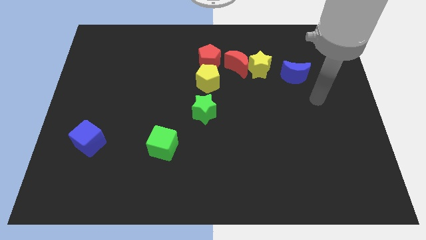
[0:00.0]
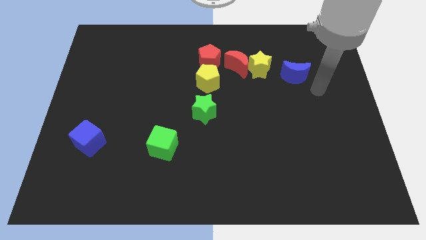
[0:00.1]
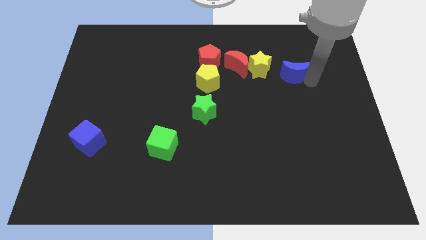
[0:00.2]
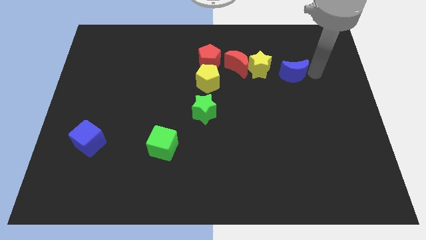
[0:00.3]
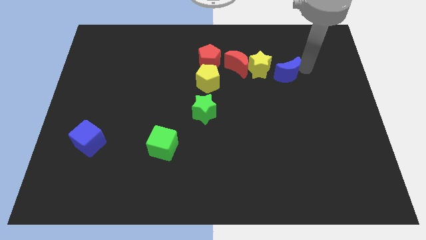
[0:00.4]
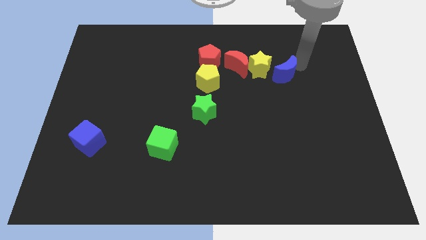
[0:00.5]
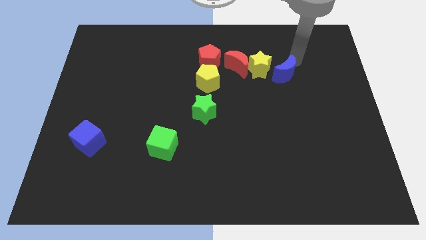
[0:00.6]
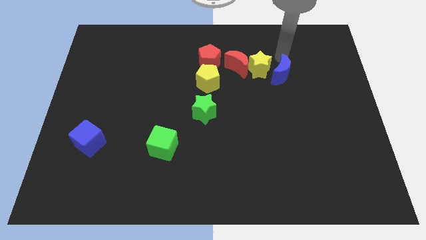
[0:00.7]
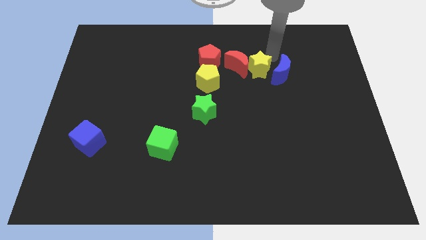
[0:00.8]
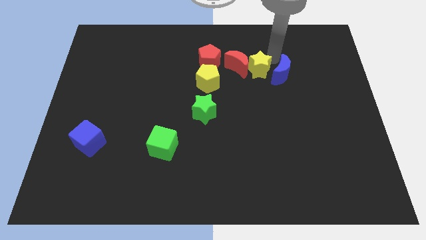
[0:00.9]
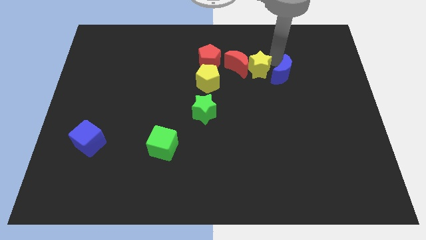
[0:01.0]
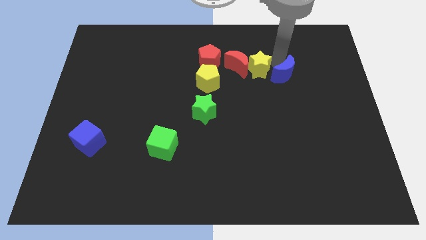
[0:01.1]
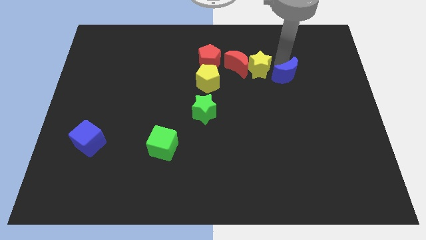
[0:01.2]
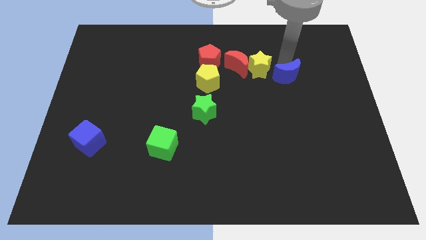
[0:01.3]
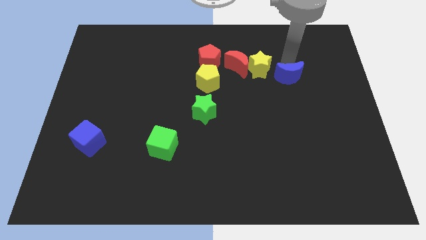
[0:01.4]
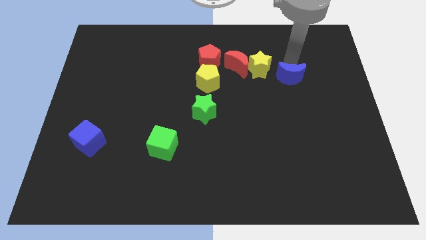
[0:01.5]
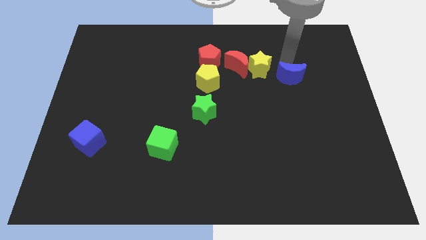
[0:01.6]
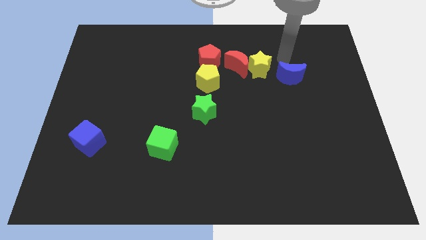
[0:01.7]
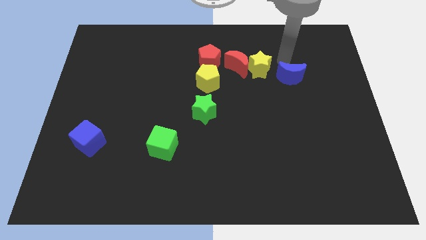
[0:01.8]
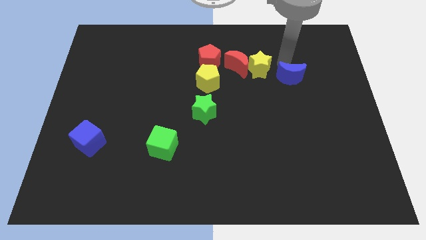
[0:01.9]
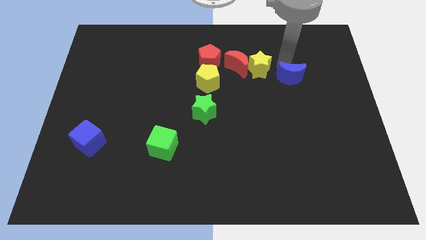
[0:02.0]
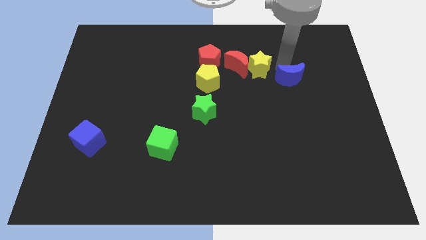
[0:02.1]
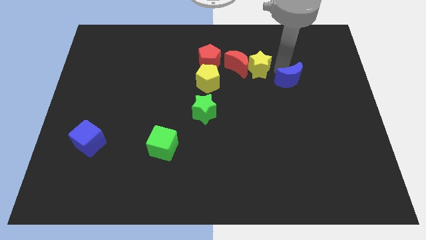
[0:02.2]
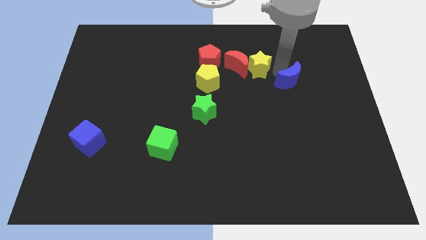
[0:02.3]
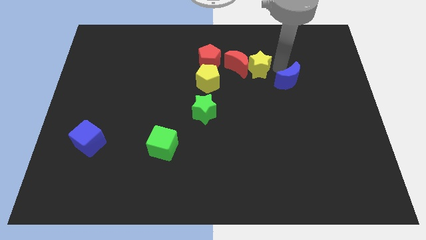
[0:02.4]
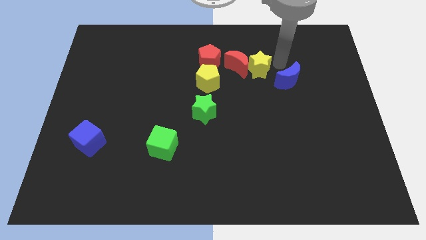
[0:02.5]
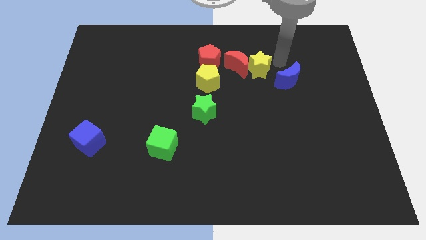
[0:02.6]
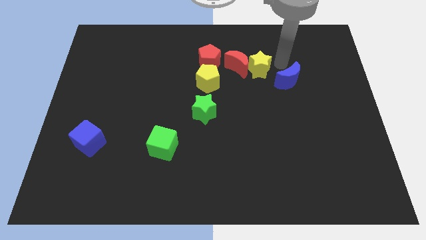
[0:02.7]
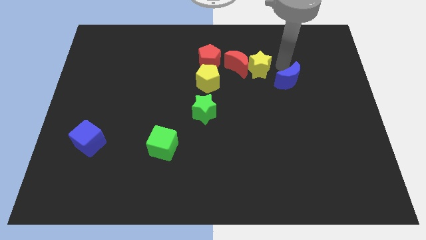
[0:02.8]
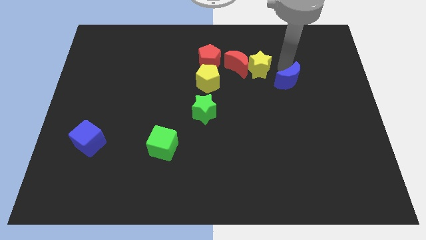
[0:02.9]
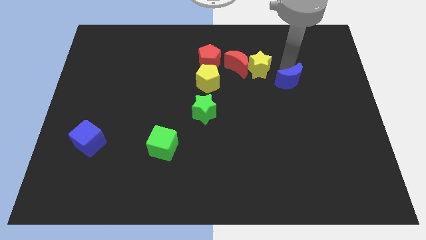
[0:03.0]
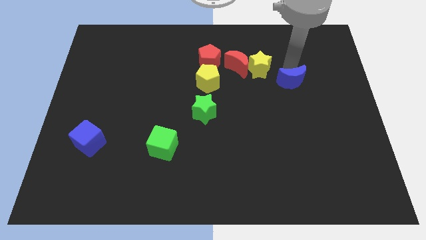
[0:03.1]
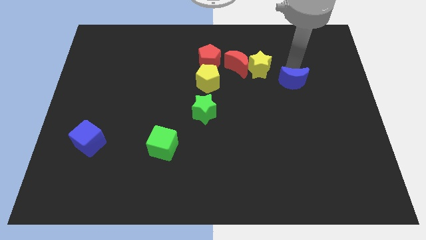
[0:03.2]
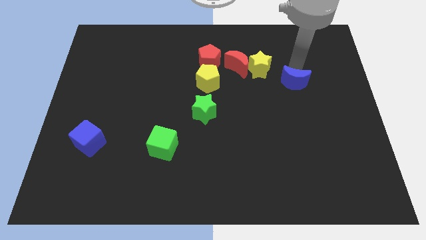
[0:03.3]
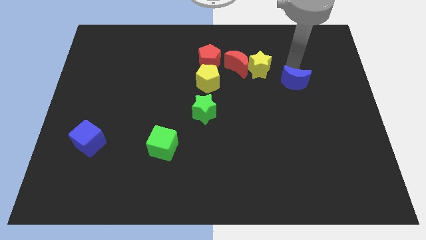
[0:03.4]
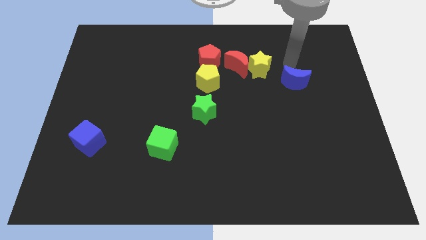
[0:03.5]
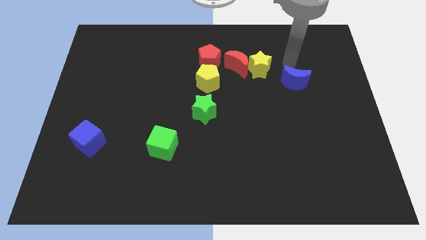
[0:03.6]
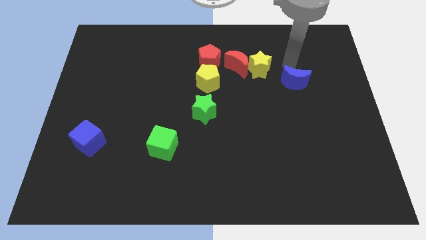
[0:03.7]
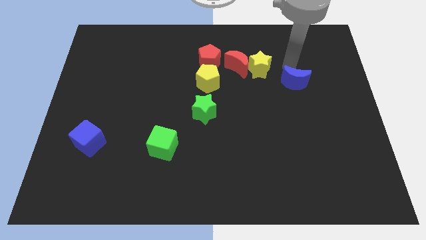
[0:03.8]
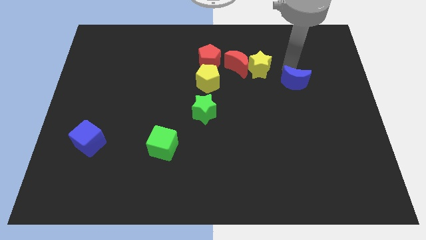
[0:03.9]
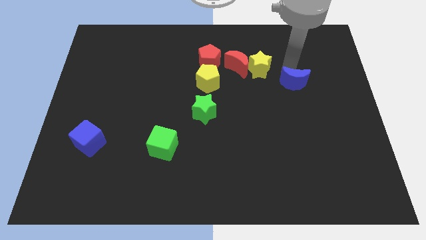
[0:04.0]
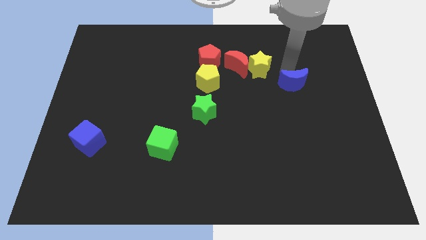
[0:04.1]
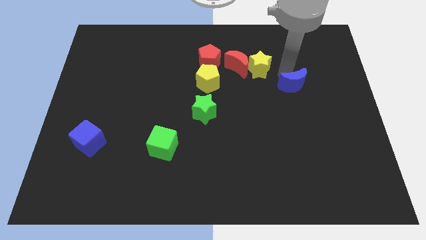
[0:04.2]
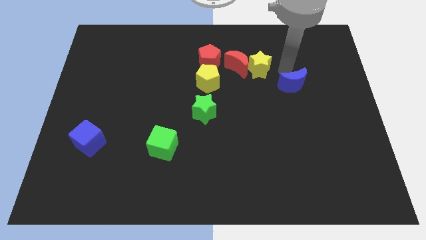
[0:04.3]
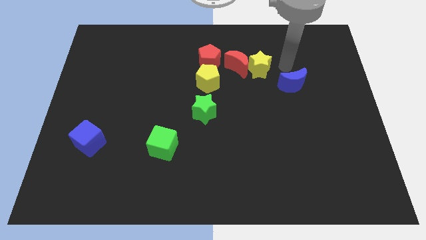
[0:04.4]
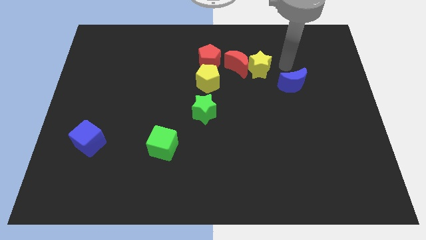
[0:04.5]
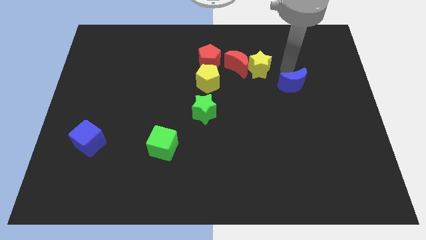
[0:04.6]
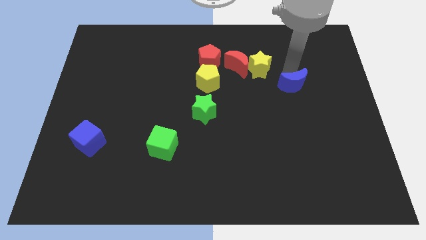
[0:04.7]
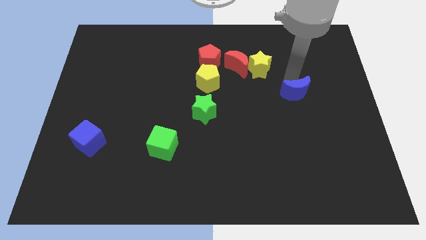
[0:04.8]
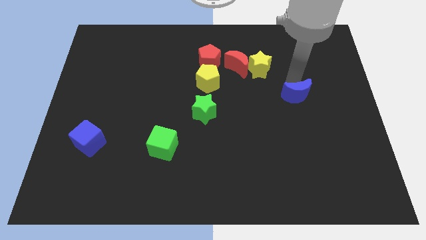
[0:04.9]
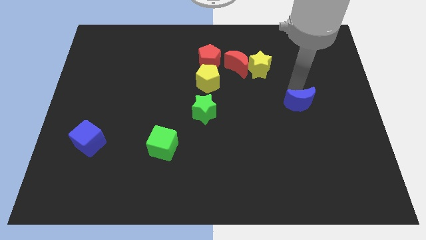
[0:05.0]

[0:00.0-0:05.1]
slightly move the blue moon down

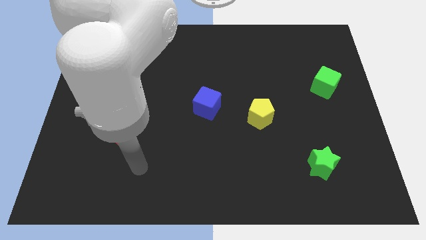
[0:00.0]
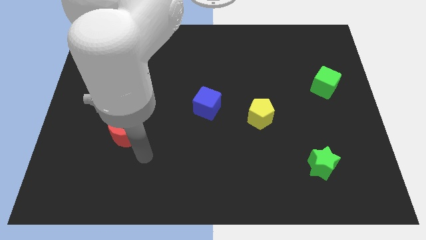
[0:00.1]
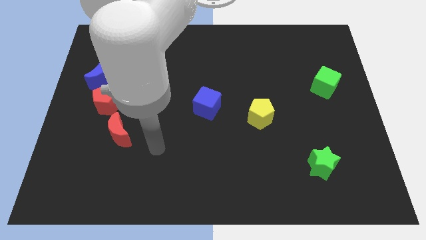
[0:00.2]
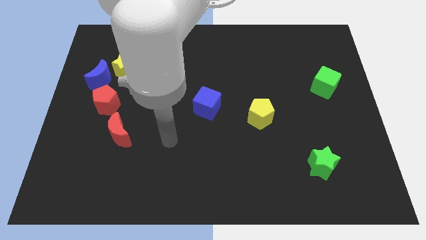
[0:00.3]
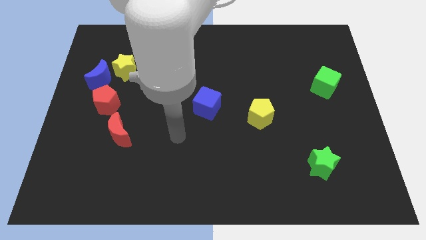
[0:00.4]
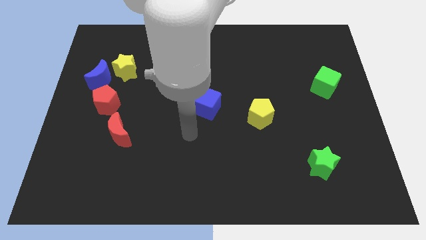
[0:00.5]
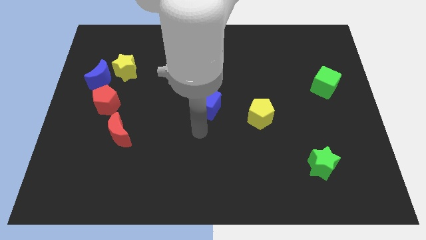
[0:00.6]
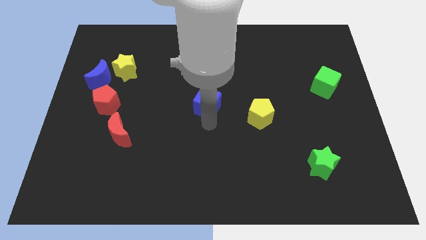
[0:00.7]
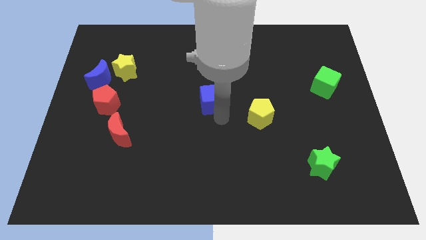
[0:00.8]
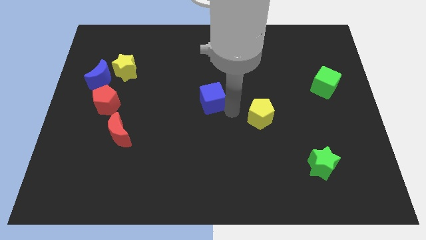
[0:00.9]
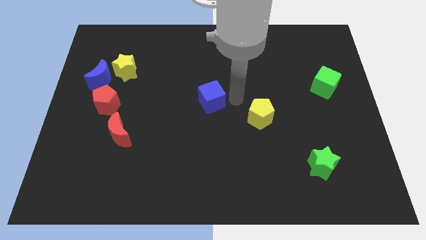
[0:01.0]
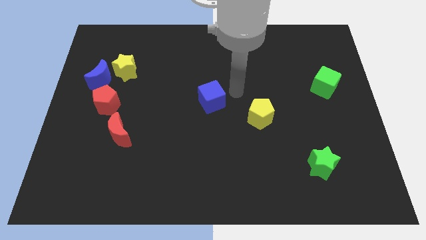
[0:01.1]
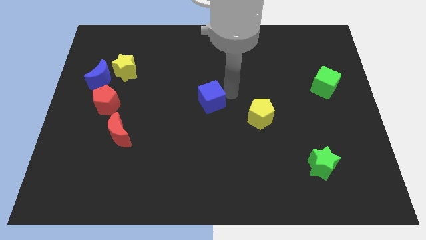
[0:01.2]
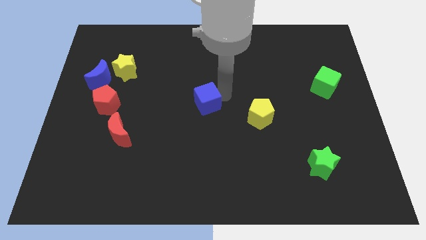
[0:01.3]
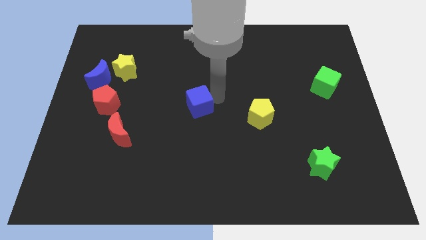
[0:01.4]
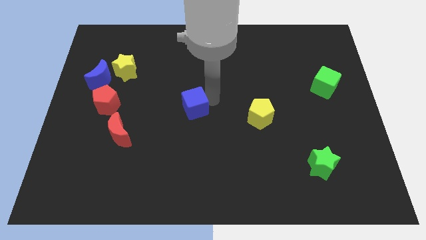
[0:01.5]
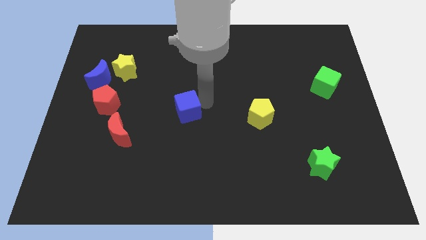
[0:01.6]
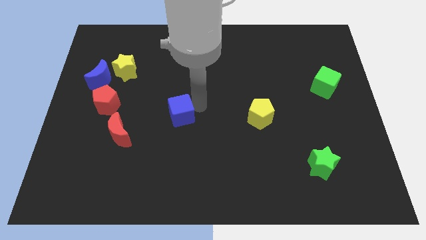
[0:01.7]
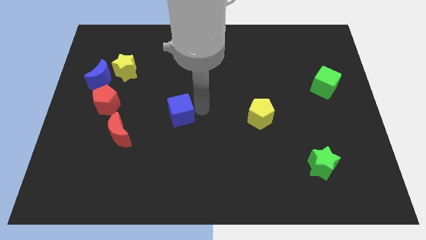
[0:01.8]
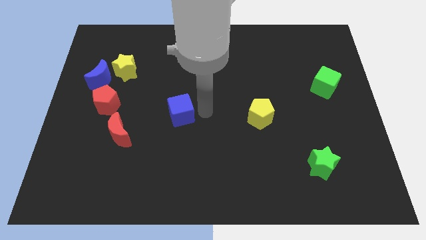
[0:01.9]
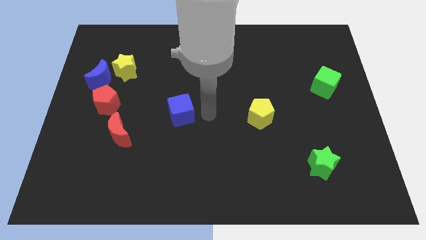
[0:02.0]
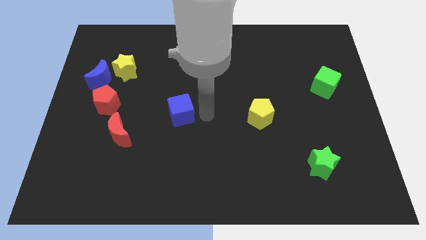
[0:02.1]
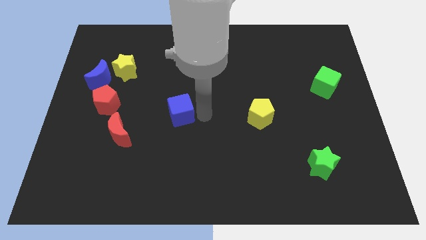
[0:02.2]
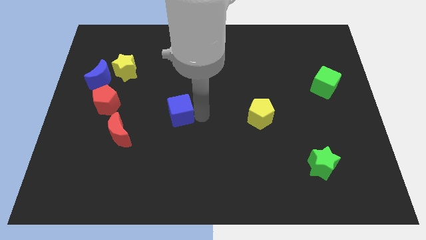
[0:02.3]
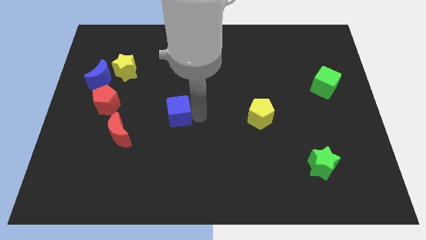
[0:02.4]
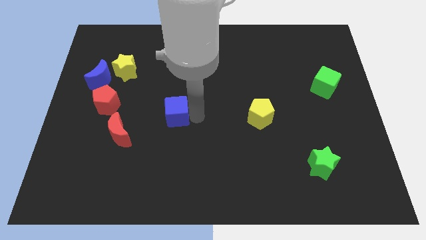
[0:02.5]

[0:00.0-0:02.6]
push the blue cube a little to the left

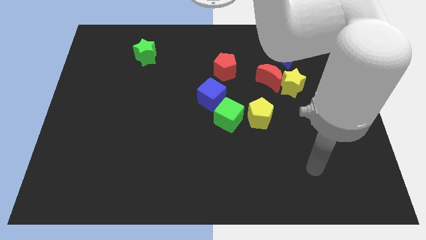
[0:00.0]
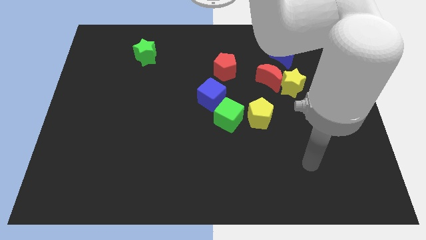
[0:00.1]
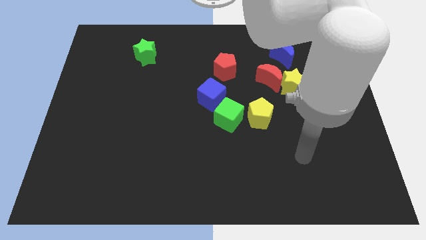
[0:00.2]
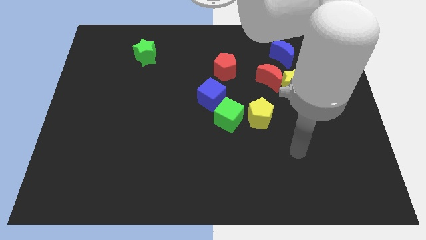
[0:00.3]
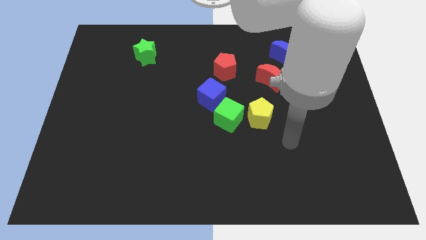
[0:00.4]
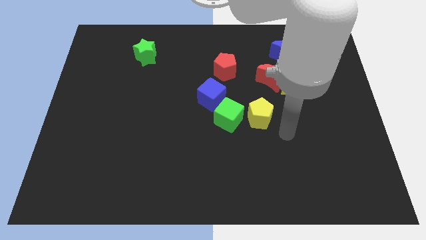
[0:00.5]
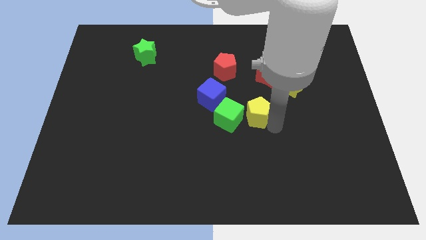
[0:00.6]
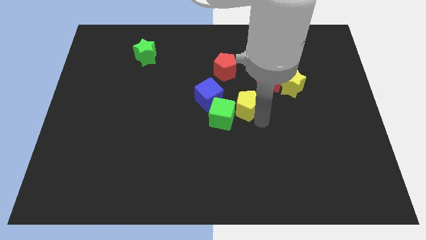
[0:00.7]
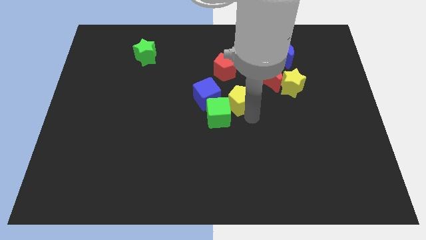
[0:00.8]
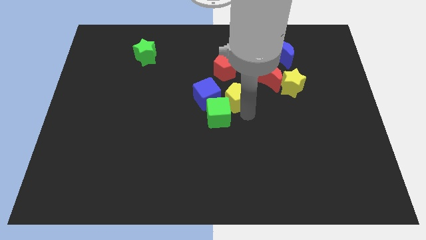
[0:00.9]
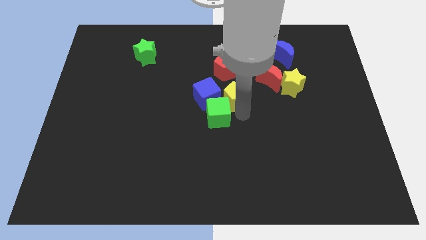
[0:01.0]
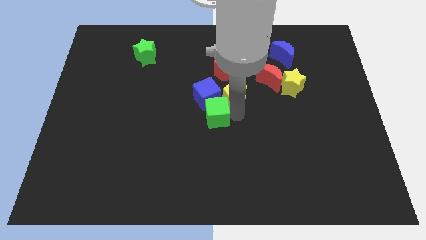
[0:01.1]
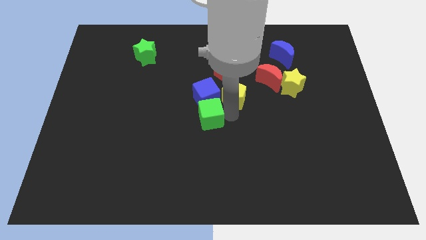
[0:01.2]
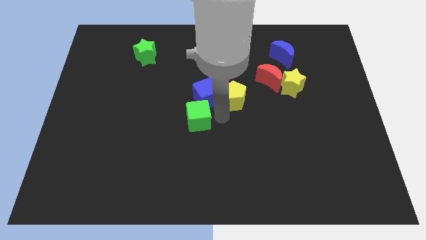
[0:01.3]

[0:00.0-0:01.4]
slightly push the green cube left
